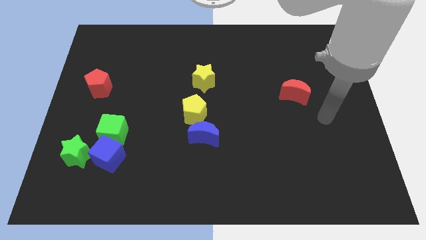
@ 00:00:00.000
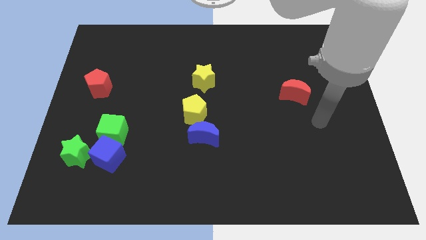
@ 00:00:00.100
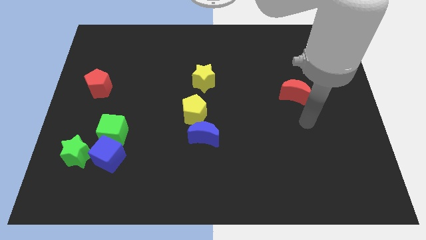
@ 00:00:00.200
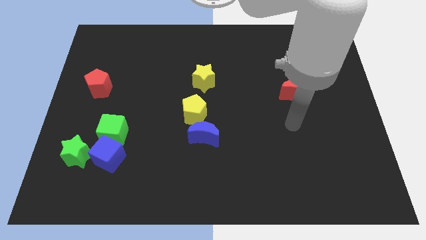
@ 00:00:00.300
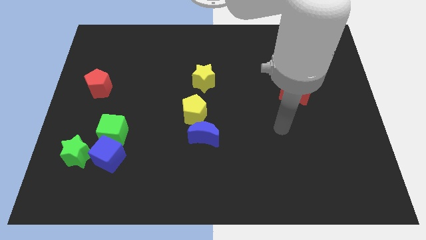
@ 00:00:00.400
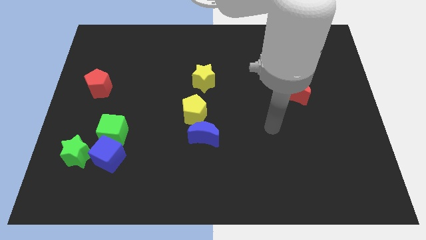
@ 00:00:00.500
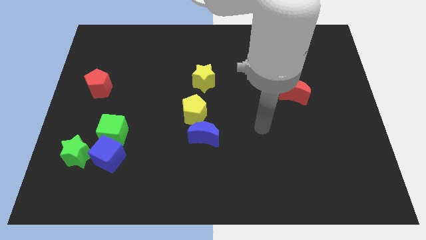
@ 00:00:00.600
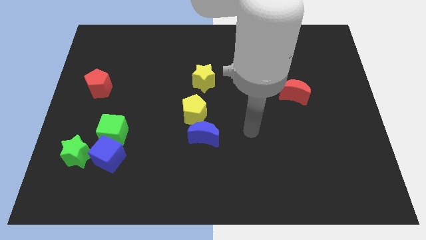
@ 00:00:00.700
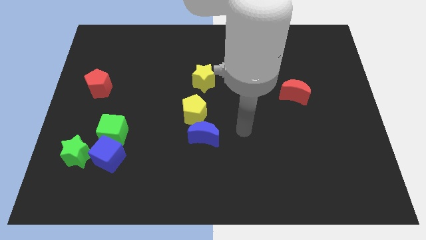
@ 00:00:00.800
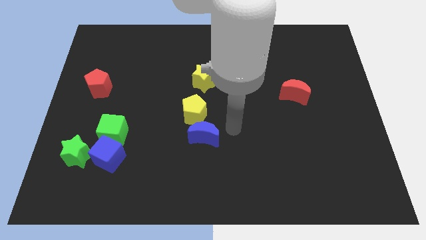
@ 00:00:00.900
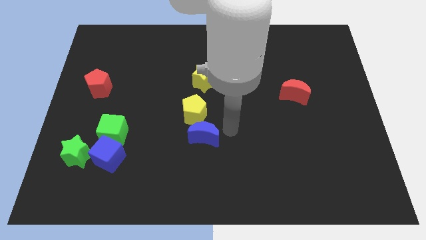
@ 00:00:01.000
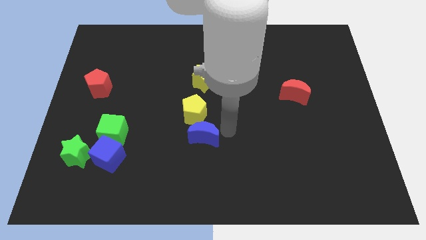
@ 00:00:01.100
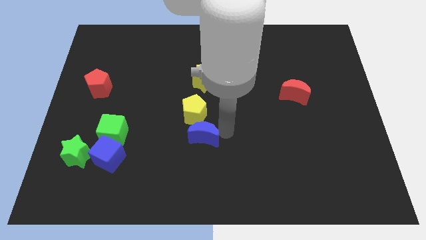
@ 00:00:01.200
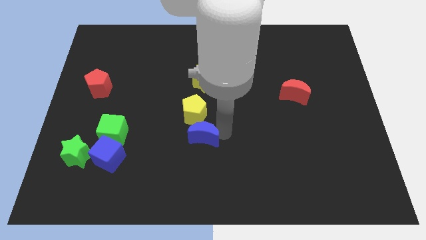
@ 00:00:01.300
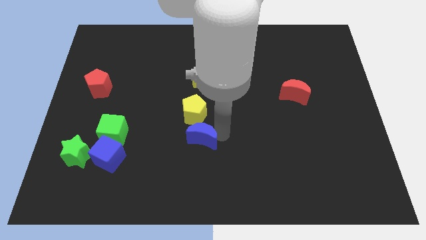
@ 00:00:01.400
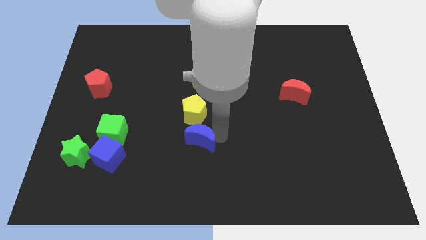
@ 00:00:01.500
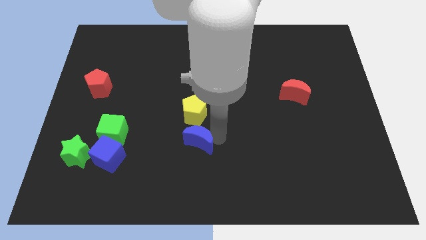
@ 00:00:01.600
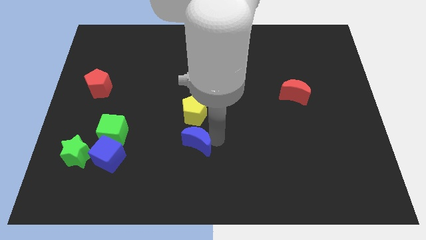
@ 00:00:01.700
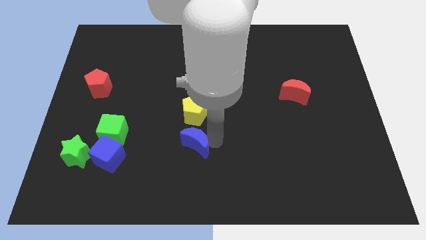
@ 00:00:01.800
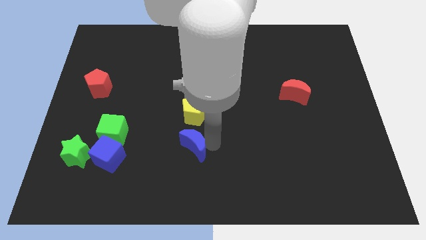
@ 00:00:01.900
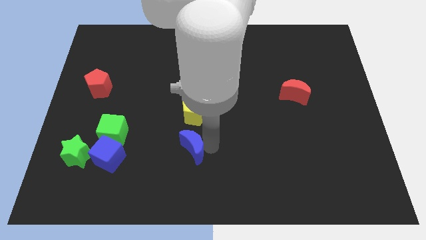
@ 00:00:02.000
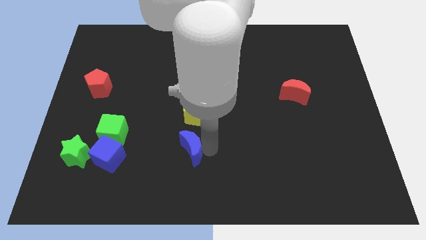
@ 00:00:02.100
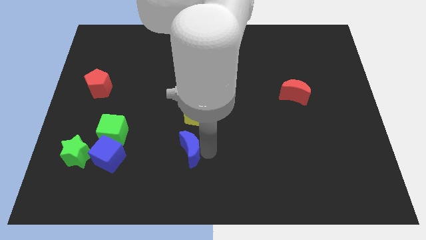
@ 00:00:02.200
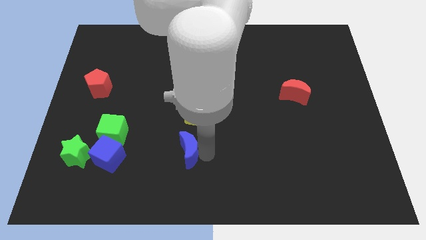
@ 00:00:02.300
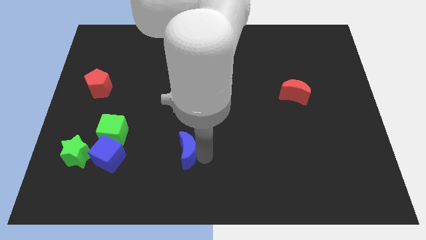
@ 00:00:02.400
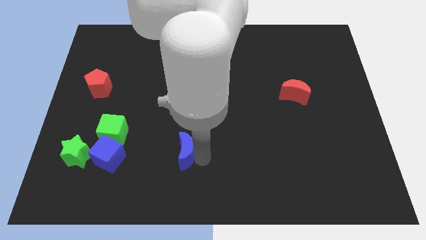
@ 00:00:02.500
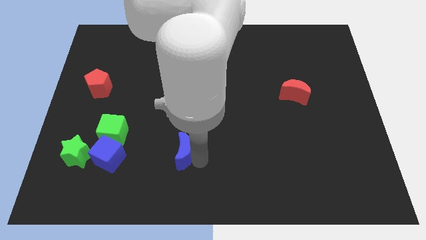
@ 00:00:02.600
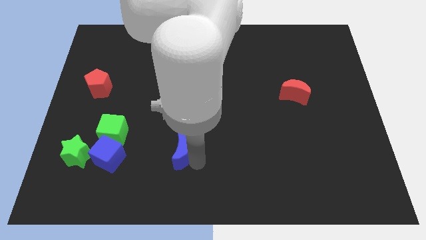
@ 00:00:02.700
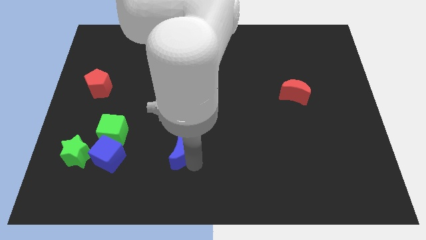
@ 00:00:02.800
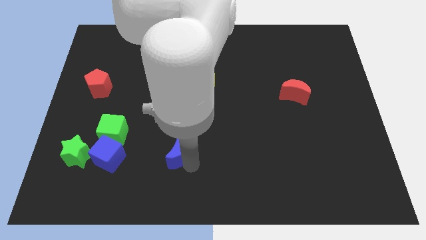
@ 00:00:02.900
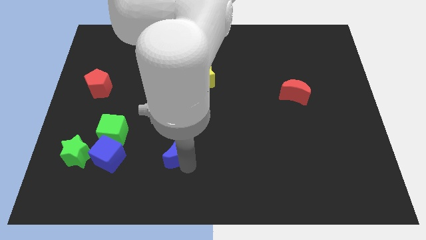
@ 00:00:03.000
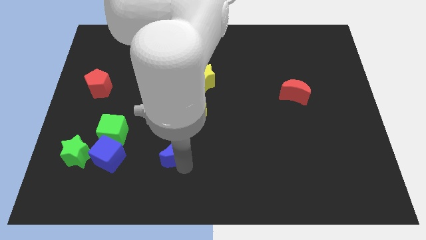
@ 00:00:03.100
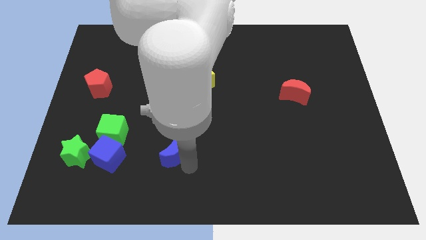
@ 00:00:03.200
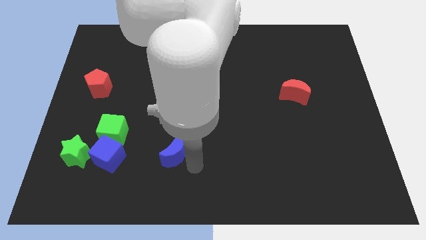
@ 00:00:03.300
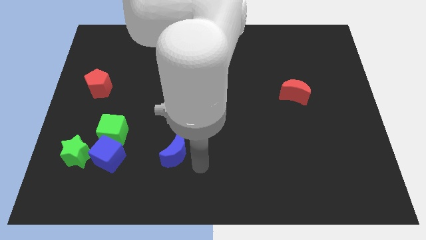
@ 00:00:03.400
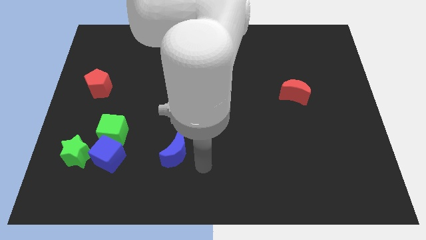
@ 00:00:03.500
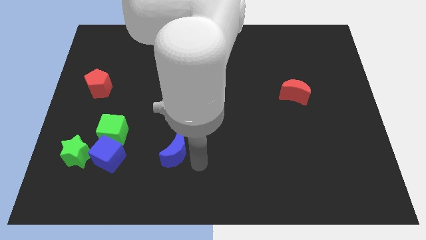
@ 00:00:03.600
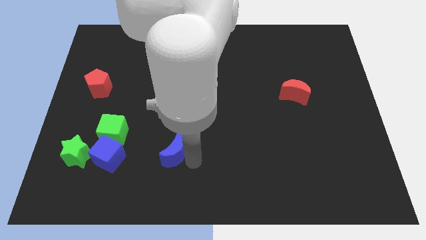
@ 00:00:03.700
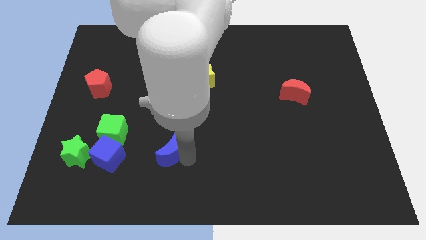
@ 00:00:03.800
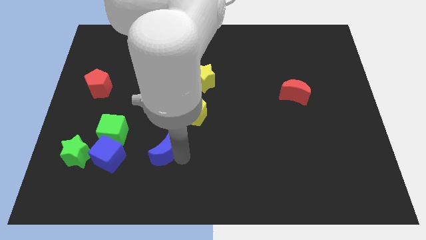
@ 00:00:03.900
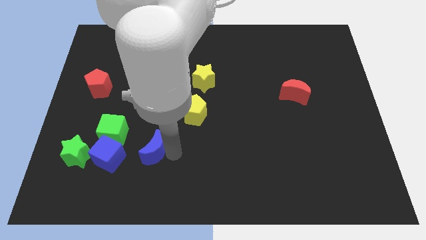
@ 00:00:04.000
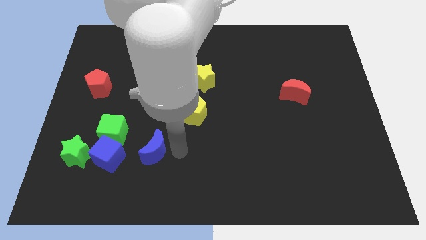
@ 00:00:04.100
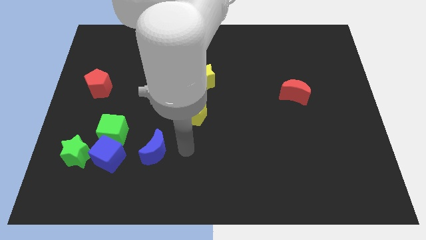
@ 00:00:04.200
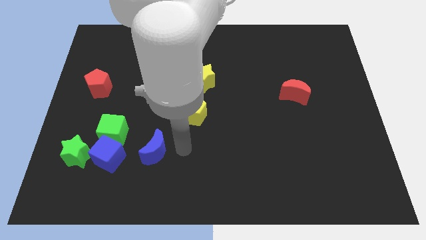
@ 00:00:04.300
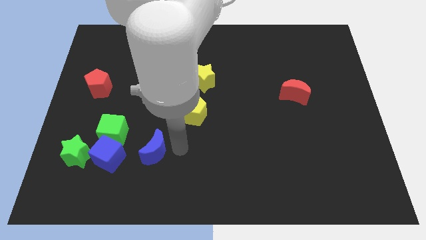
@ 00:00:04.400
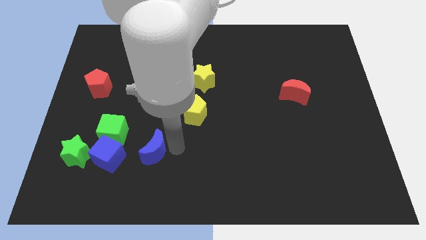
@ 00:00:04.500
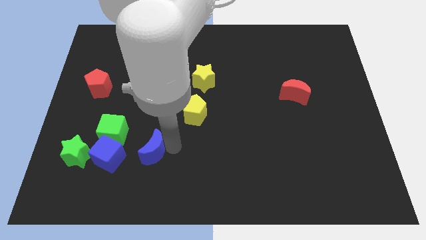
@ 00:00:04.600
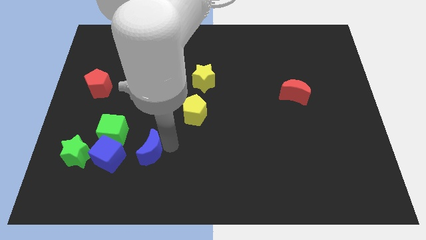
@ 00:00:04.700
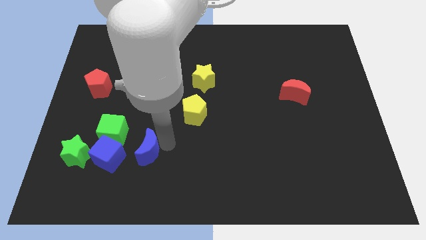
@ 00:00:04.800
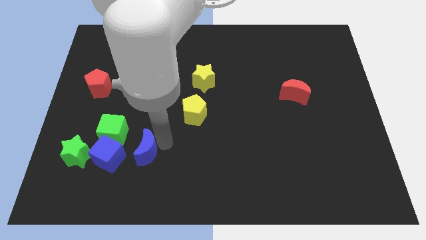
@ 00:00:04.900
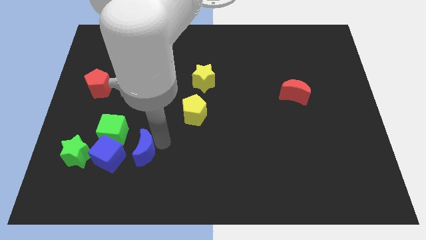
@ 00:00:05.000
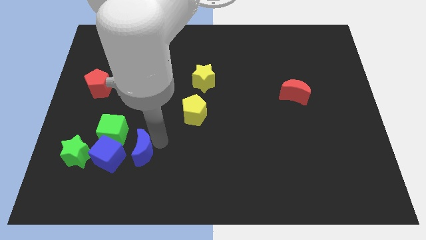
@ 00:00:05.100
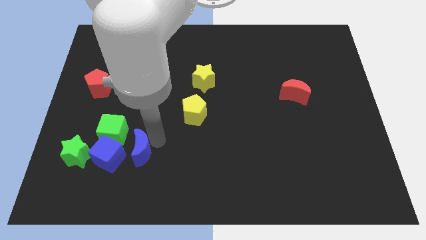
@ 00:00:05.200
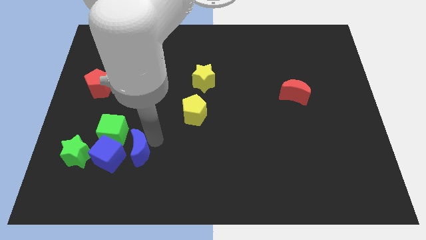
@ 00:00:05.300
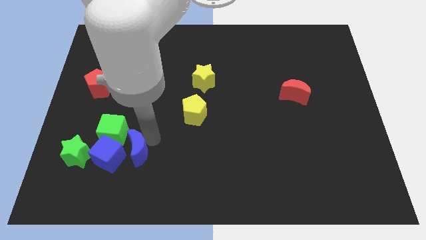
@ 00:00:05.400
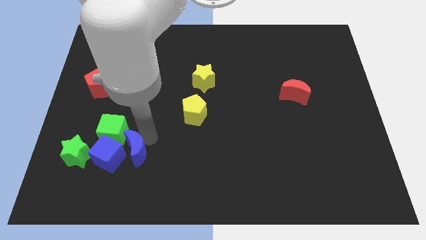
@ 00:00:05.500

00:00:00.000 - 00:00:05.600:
push the blue moon towards the blue cube

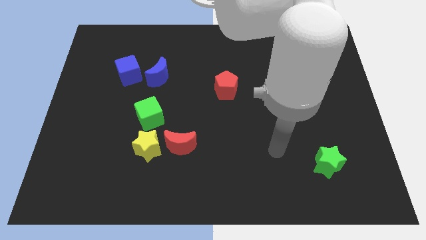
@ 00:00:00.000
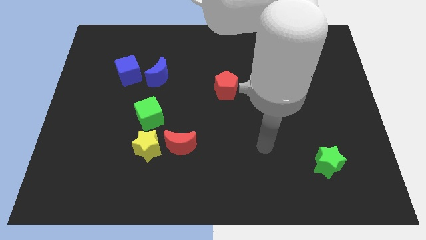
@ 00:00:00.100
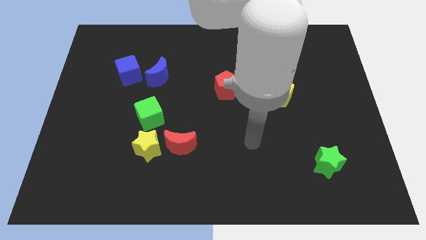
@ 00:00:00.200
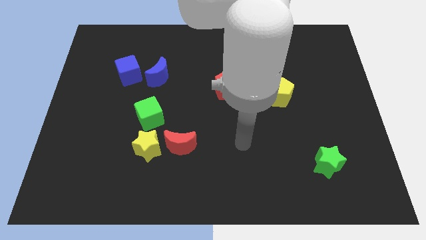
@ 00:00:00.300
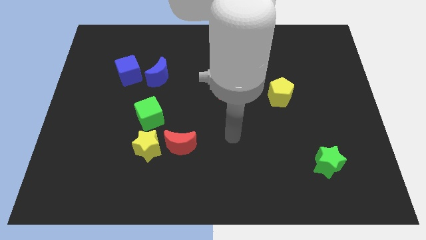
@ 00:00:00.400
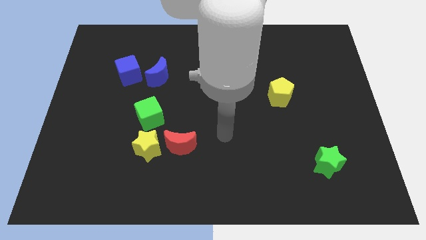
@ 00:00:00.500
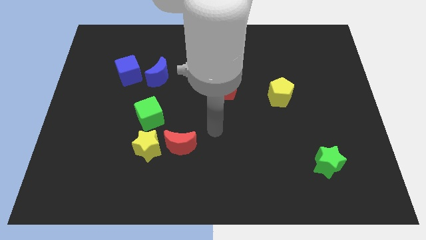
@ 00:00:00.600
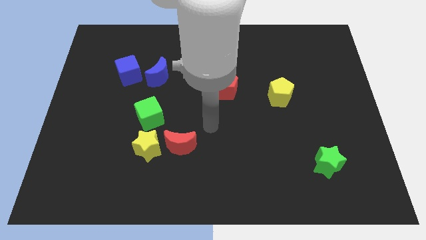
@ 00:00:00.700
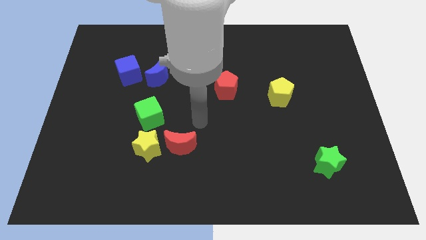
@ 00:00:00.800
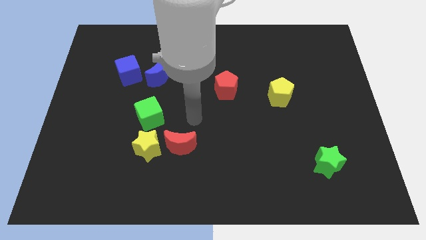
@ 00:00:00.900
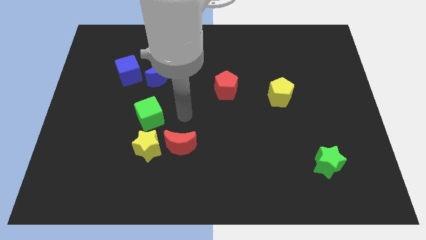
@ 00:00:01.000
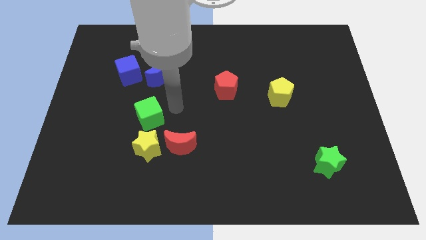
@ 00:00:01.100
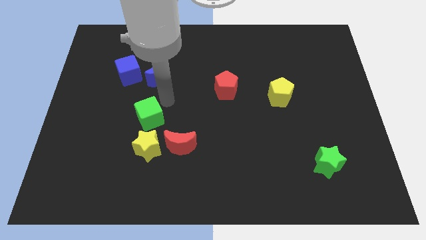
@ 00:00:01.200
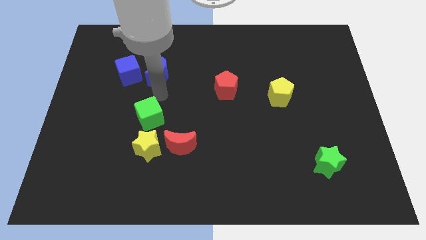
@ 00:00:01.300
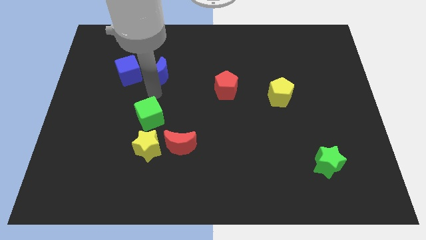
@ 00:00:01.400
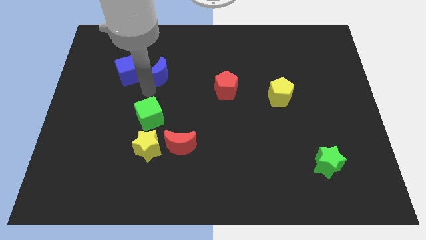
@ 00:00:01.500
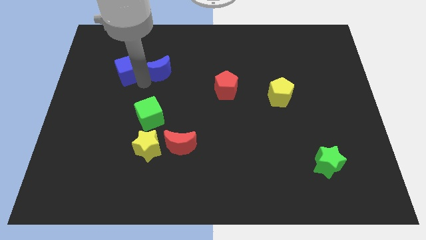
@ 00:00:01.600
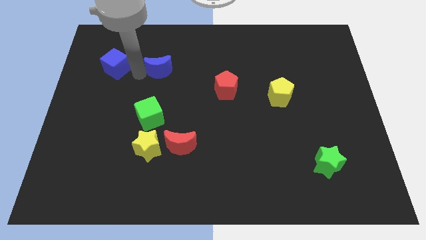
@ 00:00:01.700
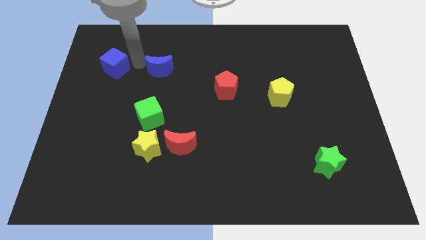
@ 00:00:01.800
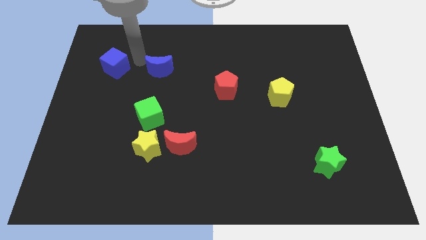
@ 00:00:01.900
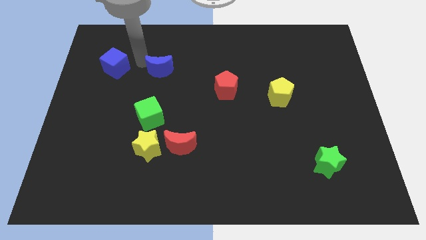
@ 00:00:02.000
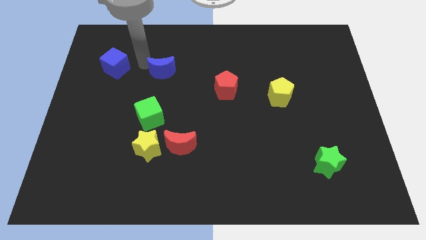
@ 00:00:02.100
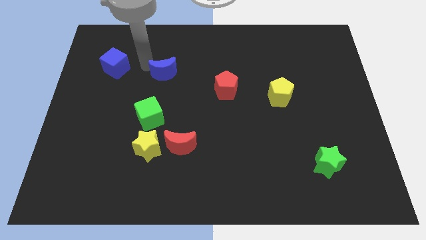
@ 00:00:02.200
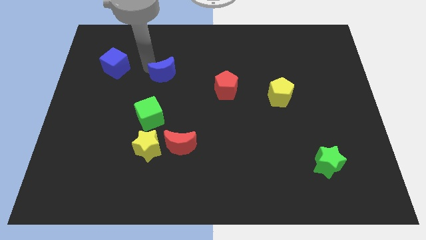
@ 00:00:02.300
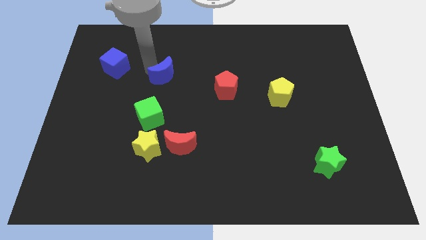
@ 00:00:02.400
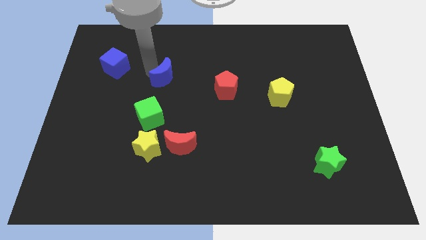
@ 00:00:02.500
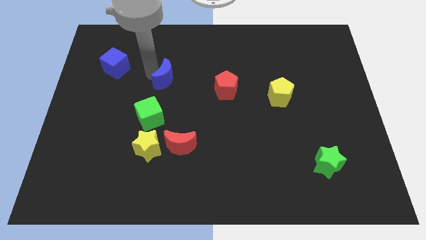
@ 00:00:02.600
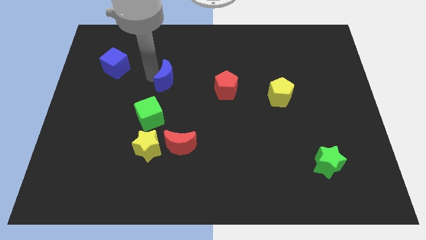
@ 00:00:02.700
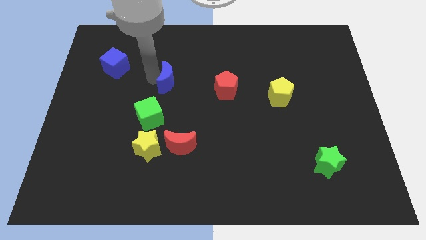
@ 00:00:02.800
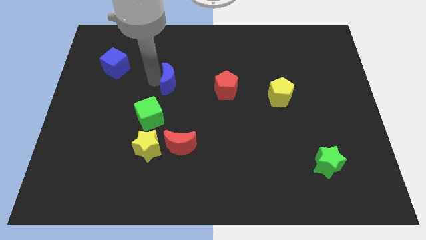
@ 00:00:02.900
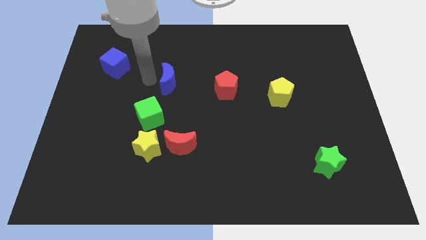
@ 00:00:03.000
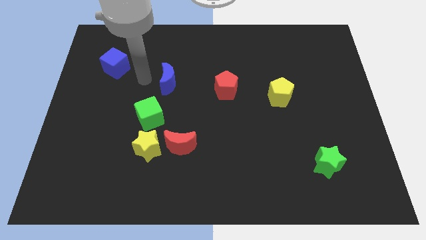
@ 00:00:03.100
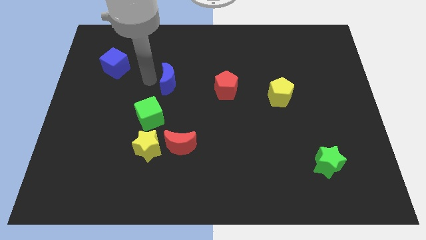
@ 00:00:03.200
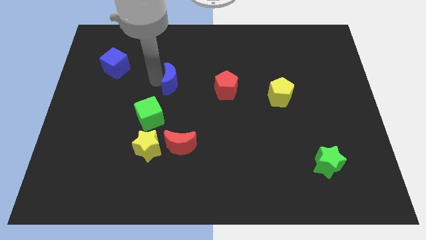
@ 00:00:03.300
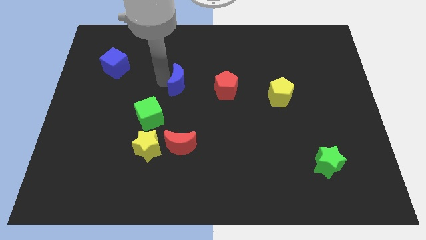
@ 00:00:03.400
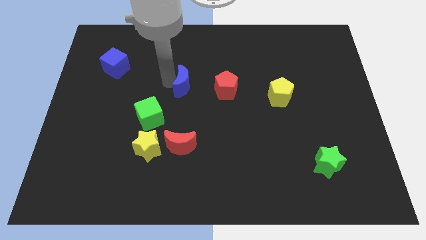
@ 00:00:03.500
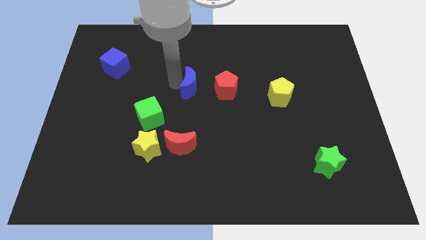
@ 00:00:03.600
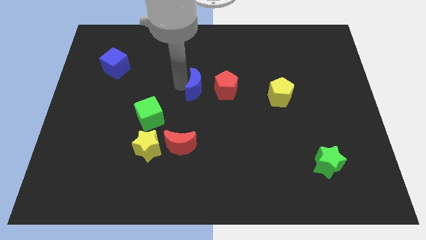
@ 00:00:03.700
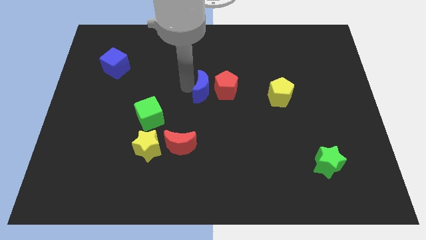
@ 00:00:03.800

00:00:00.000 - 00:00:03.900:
put the blue moon next to the red pentagon
